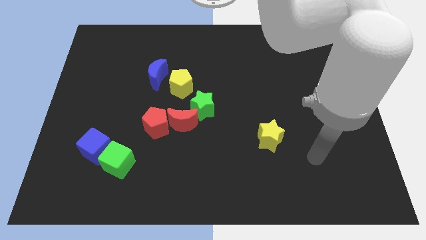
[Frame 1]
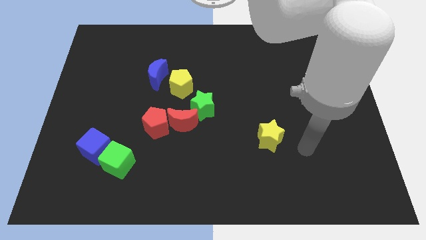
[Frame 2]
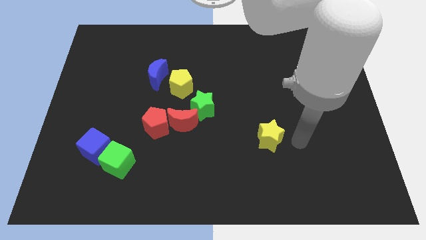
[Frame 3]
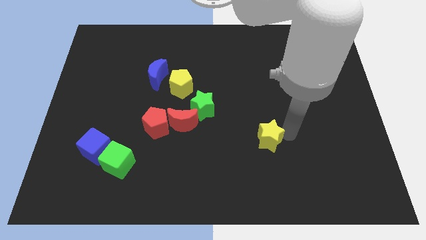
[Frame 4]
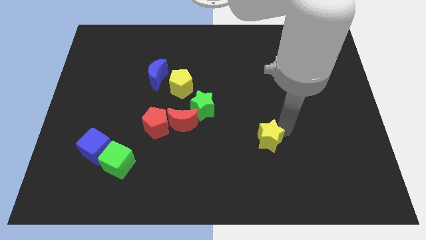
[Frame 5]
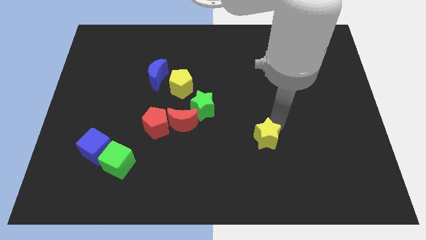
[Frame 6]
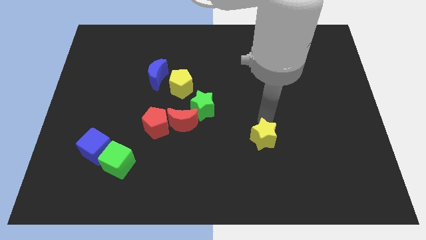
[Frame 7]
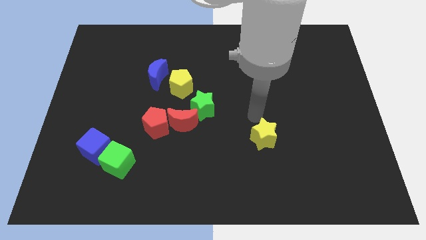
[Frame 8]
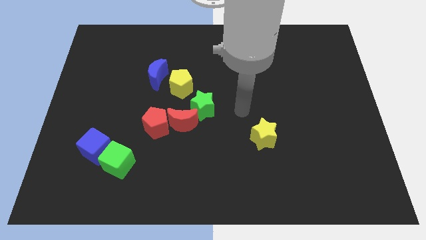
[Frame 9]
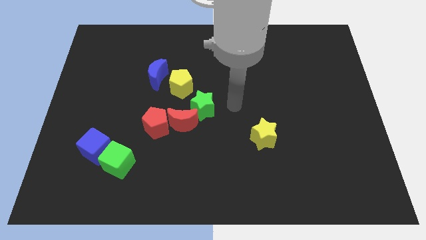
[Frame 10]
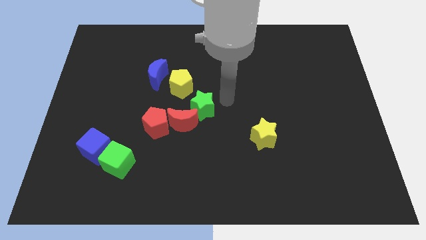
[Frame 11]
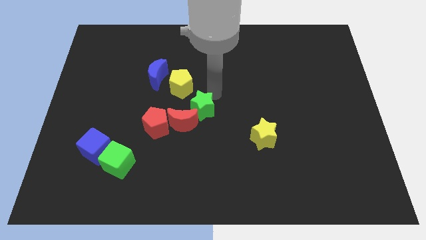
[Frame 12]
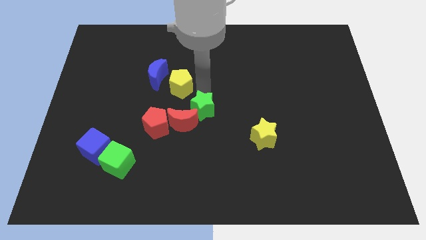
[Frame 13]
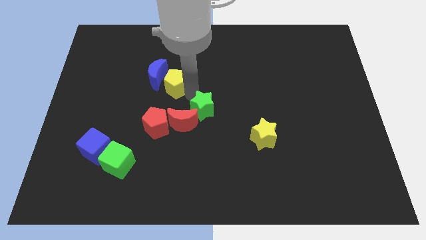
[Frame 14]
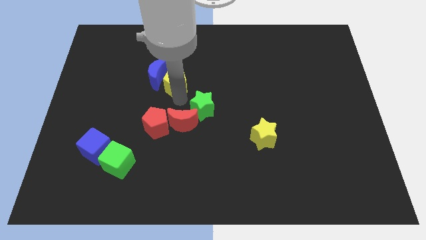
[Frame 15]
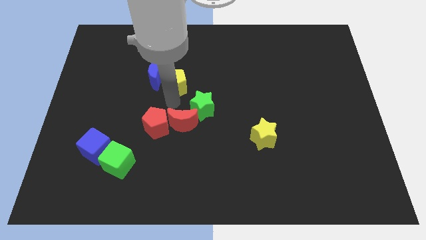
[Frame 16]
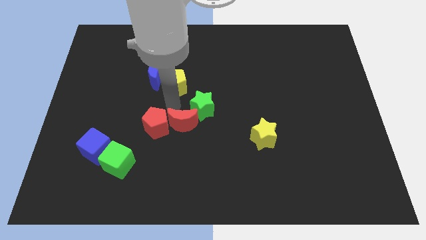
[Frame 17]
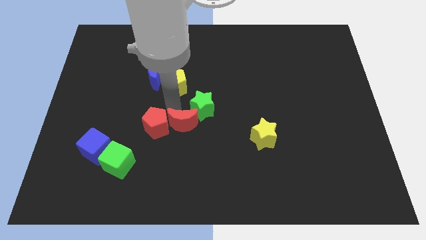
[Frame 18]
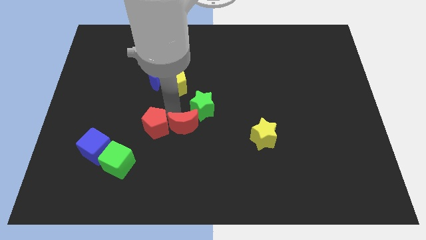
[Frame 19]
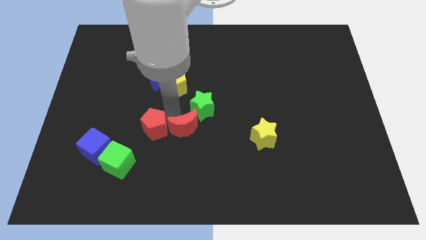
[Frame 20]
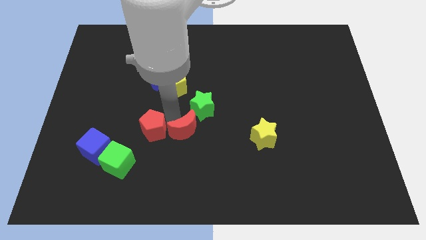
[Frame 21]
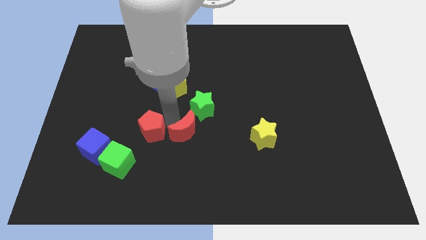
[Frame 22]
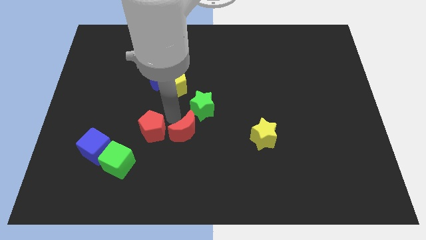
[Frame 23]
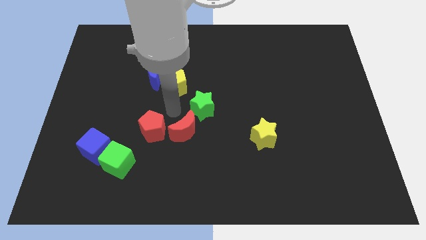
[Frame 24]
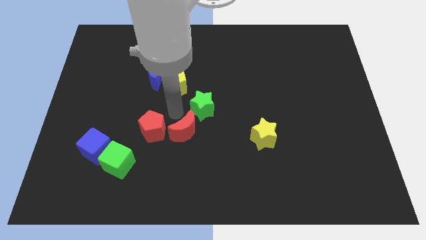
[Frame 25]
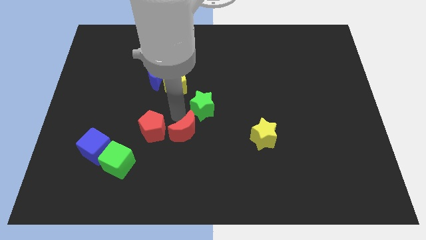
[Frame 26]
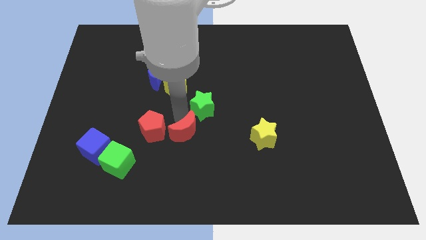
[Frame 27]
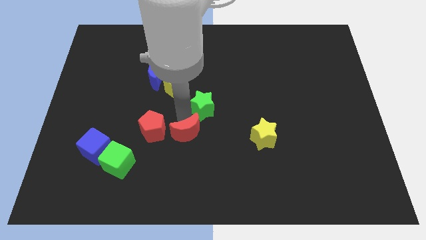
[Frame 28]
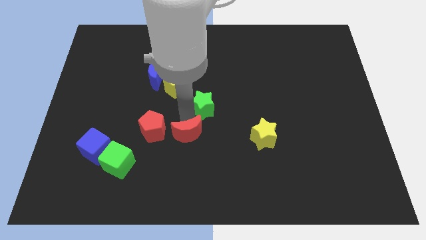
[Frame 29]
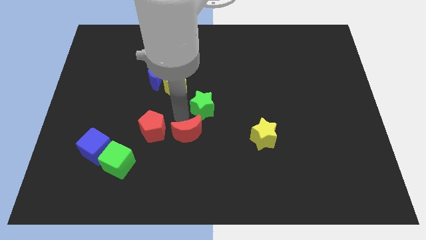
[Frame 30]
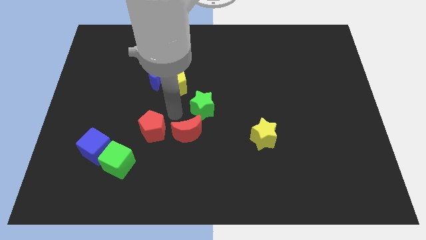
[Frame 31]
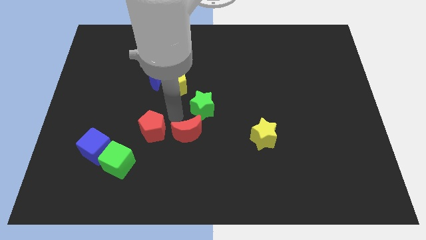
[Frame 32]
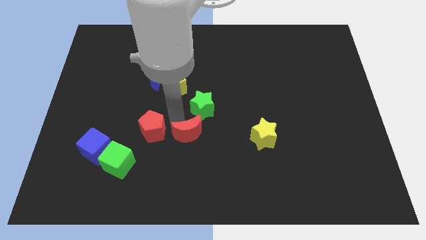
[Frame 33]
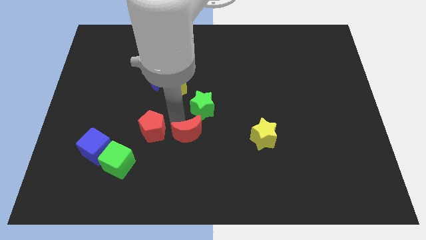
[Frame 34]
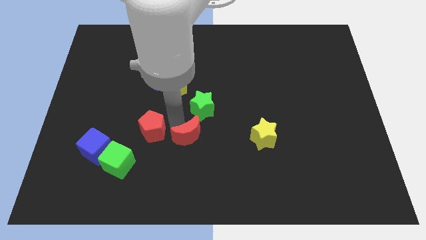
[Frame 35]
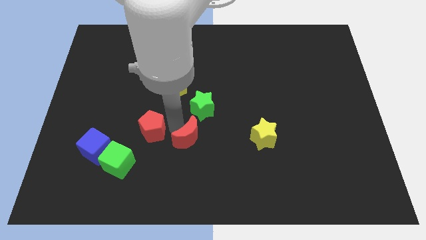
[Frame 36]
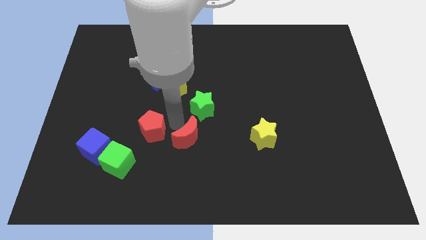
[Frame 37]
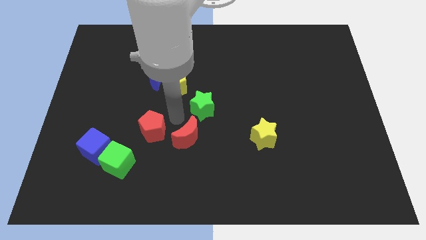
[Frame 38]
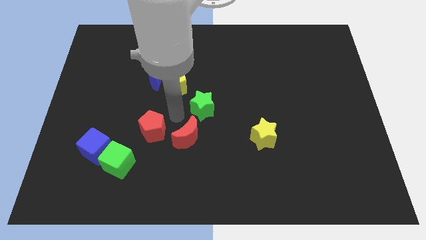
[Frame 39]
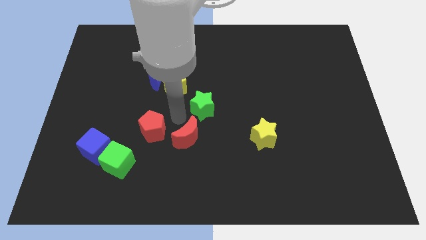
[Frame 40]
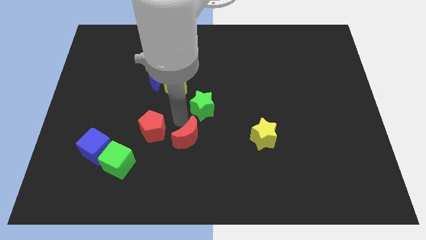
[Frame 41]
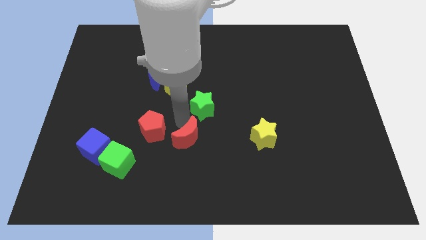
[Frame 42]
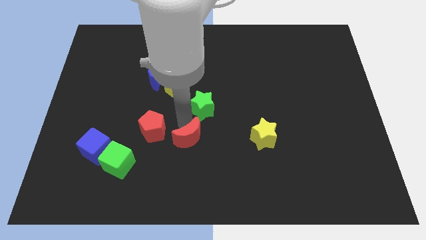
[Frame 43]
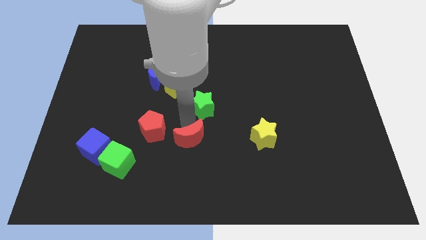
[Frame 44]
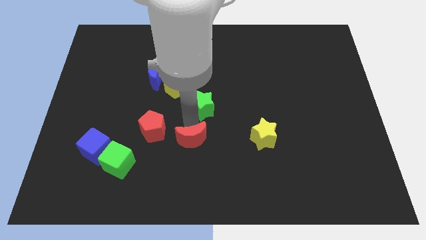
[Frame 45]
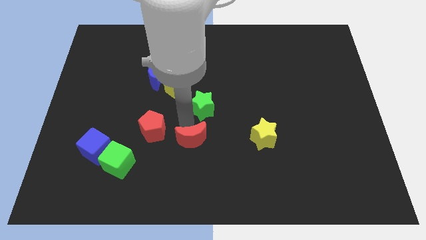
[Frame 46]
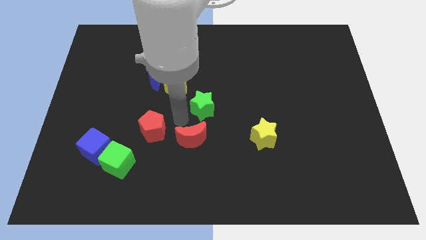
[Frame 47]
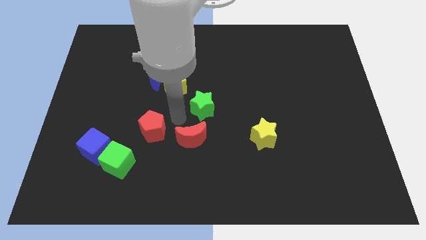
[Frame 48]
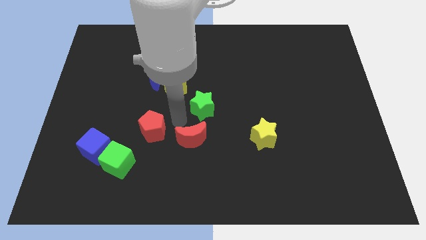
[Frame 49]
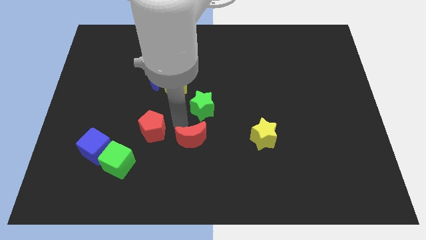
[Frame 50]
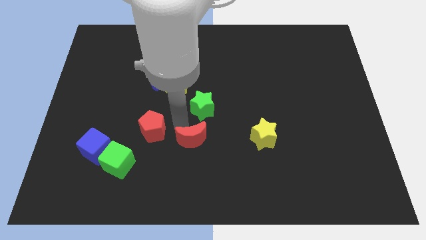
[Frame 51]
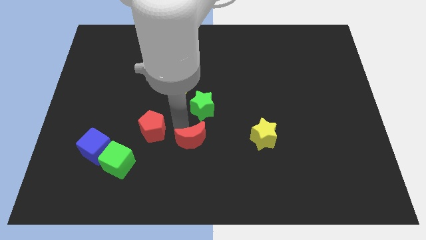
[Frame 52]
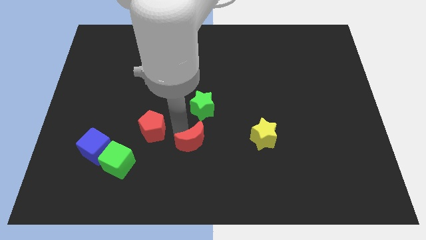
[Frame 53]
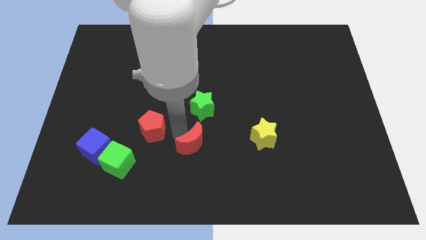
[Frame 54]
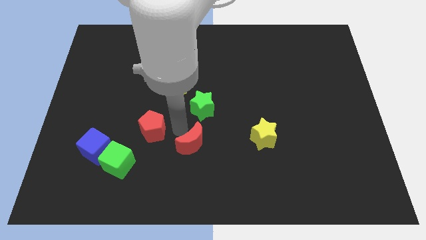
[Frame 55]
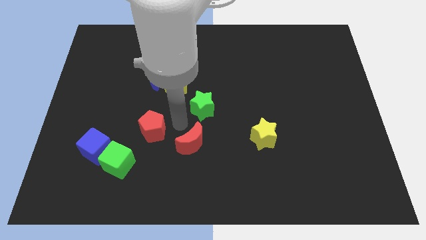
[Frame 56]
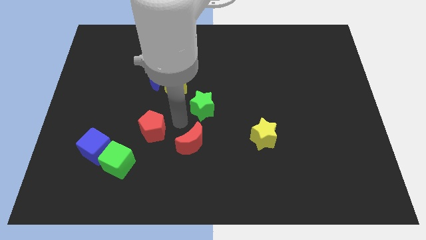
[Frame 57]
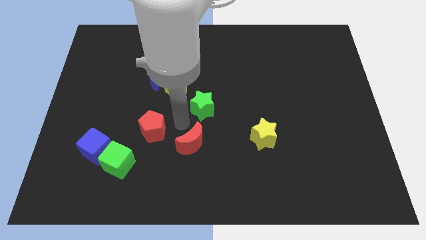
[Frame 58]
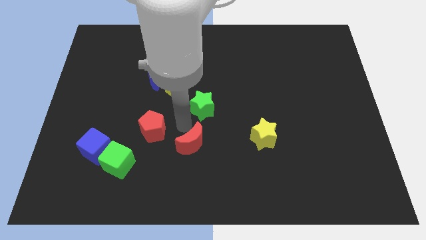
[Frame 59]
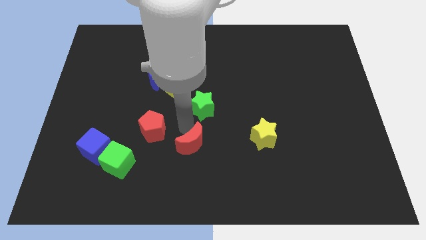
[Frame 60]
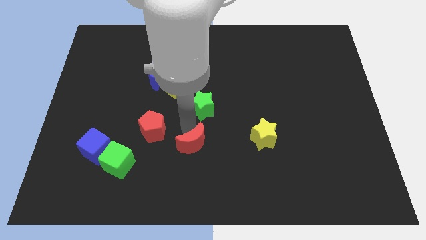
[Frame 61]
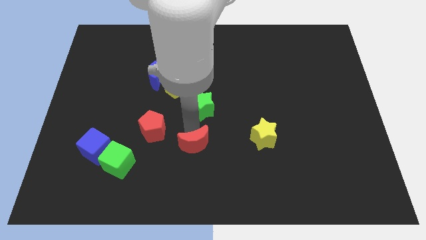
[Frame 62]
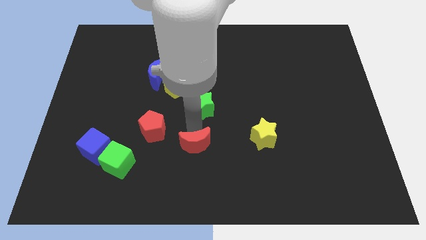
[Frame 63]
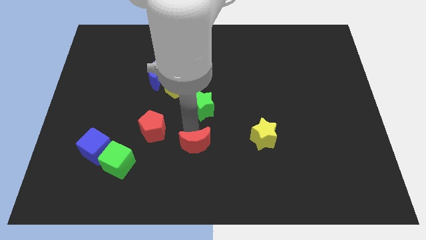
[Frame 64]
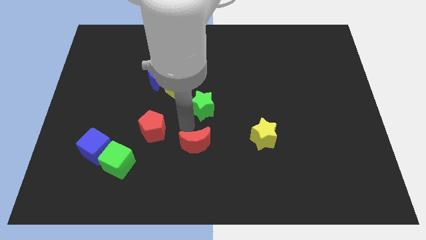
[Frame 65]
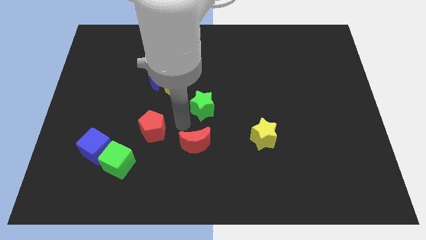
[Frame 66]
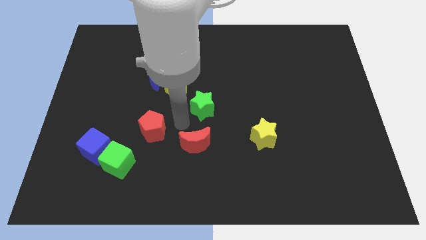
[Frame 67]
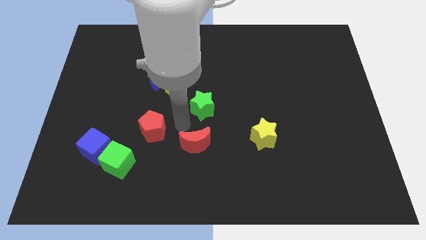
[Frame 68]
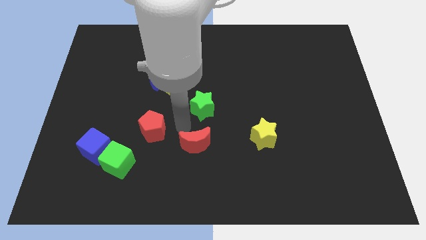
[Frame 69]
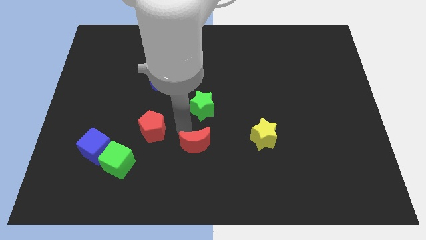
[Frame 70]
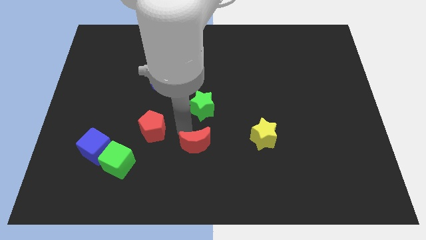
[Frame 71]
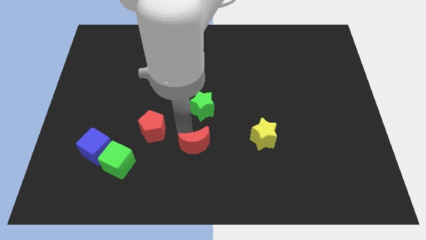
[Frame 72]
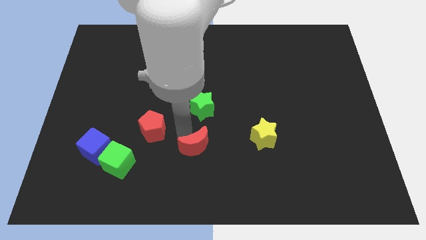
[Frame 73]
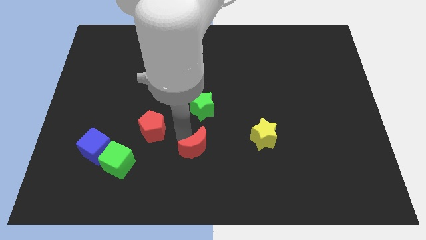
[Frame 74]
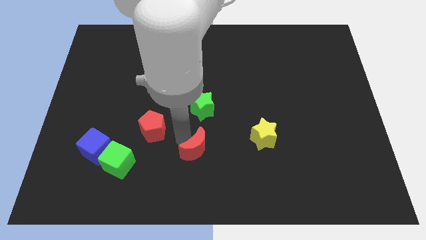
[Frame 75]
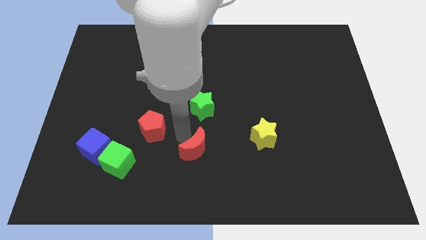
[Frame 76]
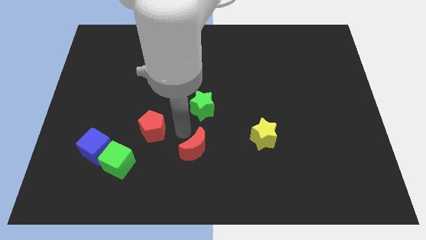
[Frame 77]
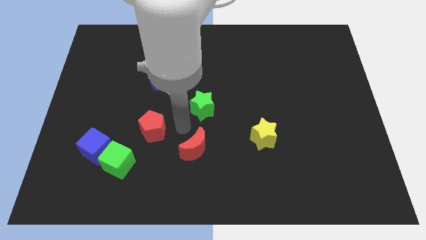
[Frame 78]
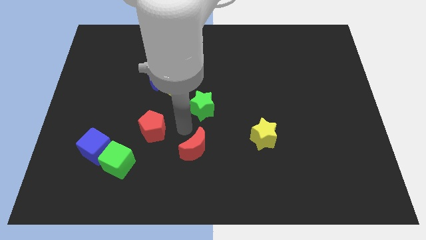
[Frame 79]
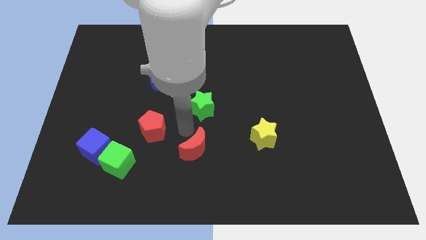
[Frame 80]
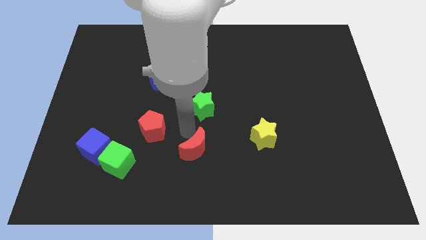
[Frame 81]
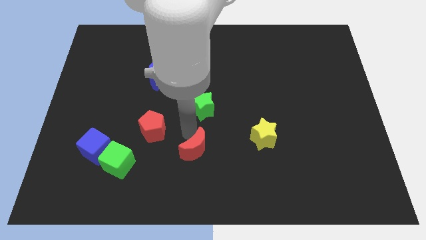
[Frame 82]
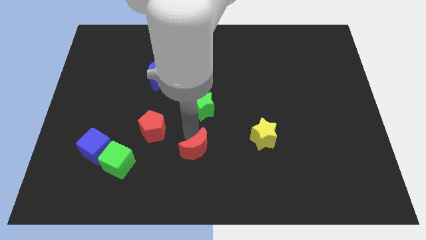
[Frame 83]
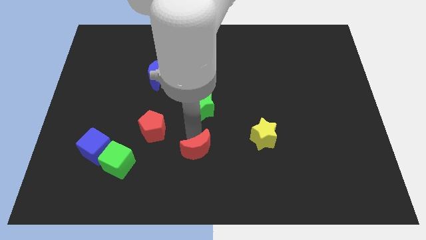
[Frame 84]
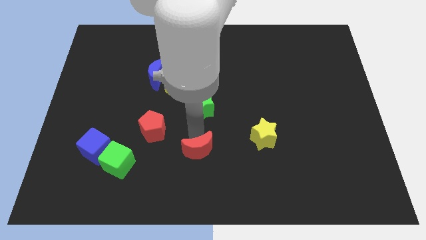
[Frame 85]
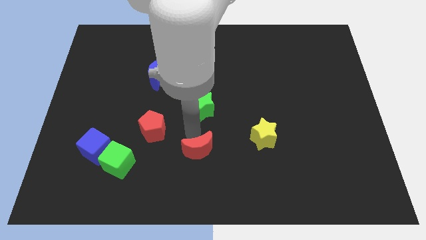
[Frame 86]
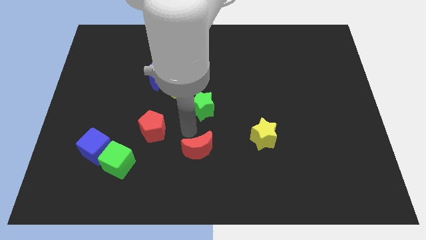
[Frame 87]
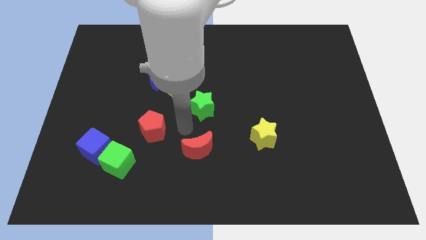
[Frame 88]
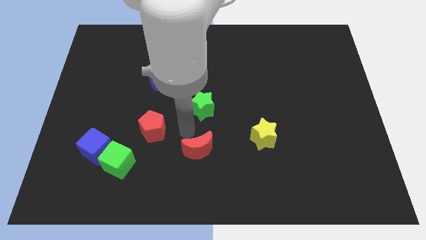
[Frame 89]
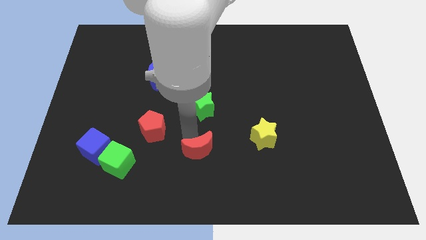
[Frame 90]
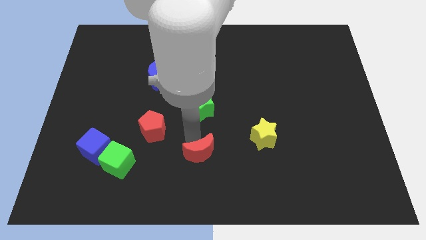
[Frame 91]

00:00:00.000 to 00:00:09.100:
separate the red moon from the green star and red pentagon

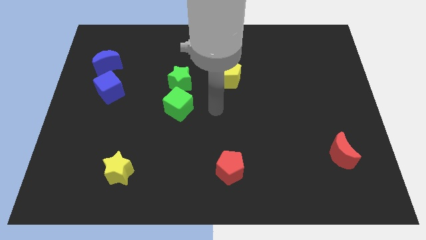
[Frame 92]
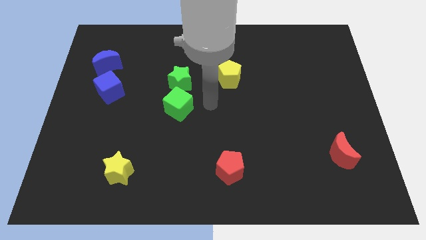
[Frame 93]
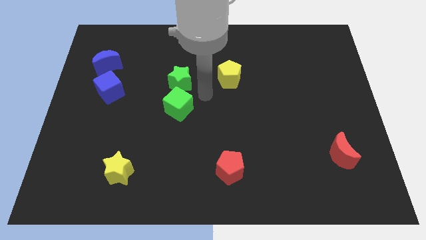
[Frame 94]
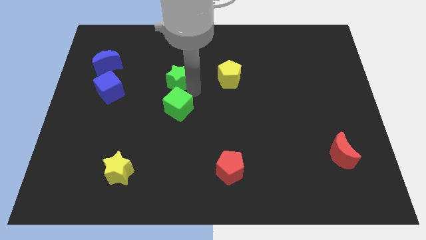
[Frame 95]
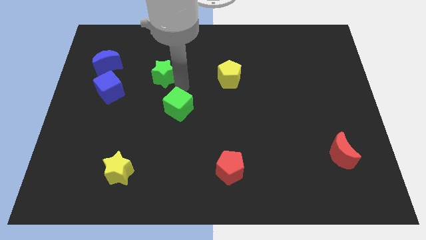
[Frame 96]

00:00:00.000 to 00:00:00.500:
move the green cube away from the green star
